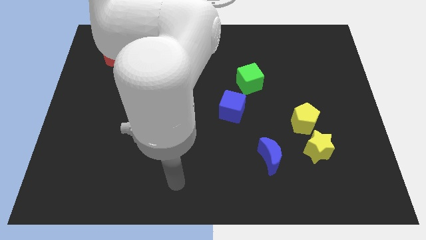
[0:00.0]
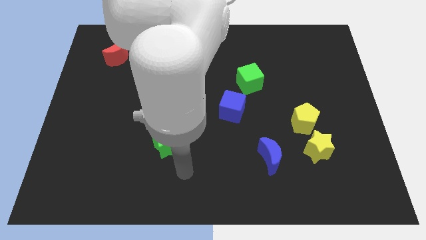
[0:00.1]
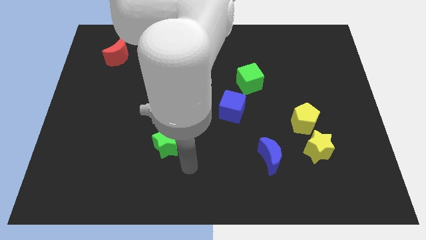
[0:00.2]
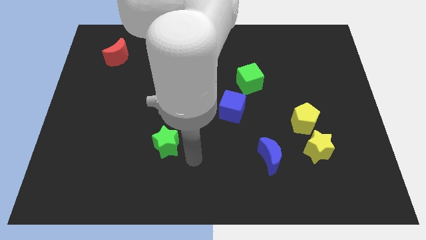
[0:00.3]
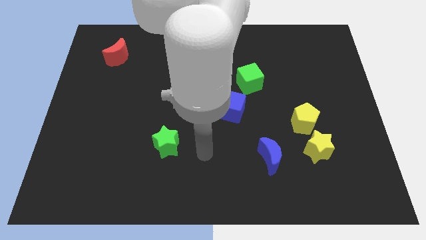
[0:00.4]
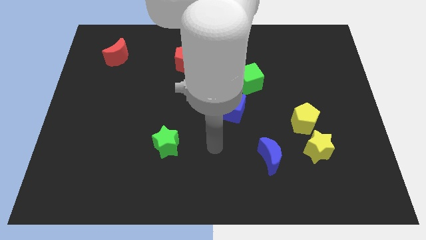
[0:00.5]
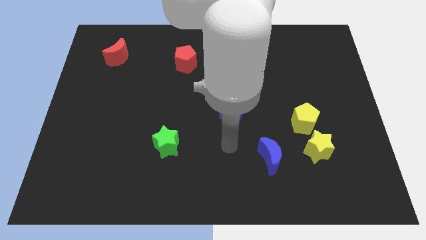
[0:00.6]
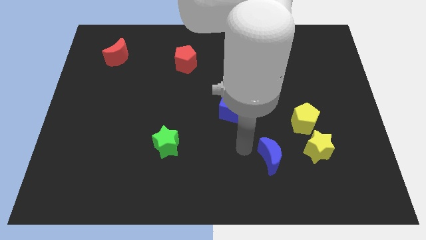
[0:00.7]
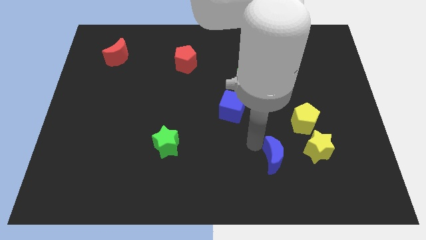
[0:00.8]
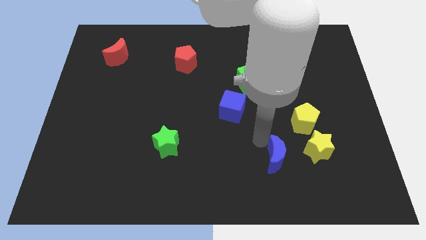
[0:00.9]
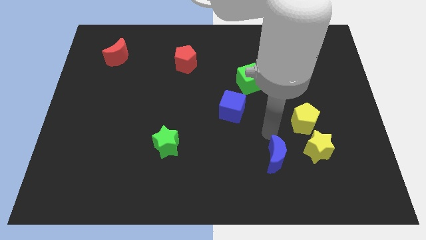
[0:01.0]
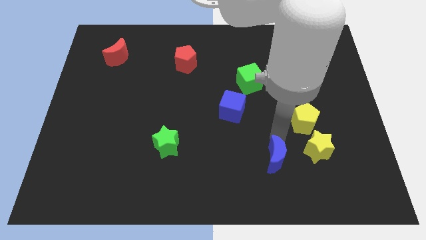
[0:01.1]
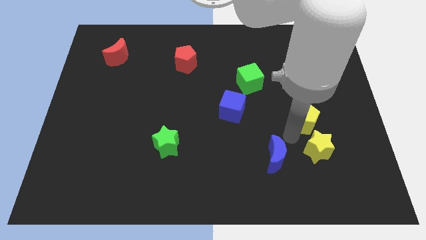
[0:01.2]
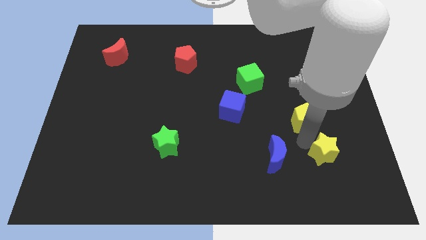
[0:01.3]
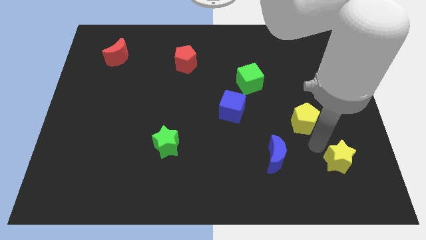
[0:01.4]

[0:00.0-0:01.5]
pull the yellow pentagon apart from the yellow star

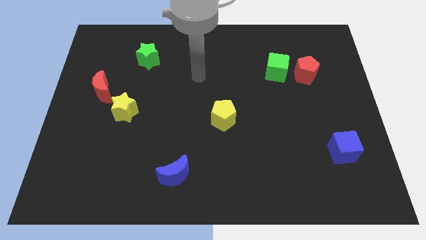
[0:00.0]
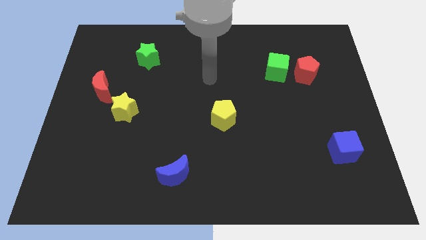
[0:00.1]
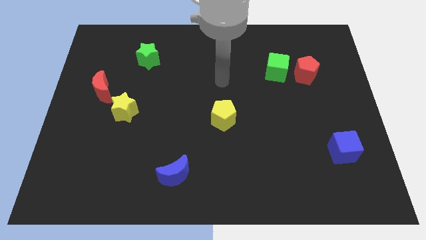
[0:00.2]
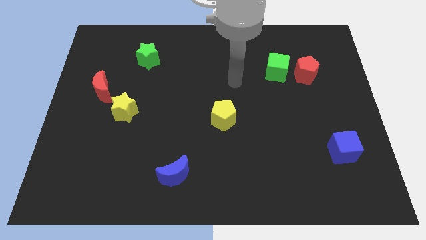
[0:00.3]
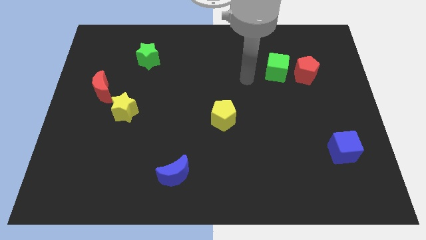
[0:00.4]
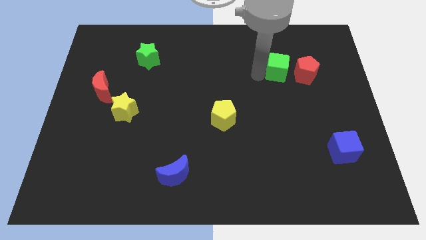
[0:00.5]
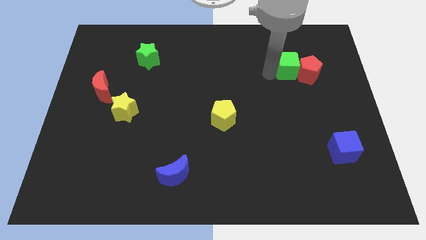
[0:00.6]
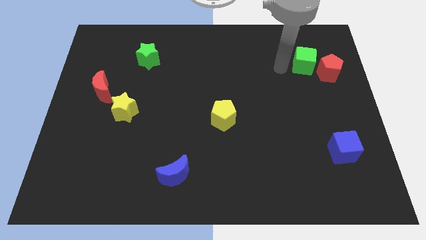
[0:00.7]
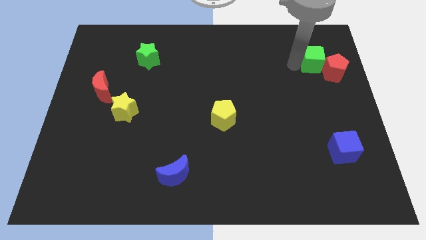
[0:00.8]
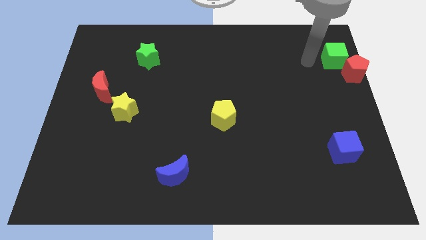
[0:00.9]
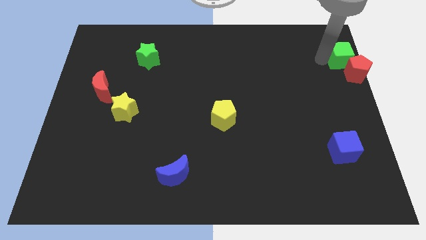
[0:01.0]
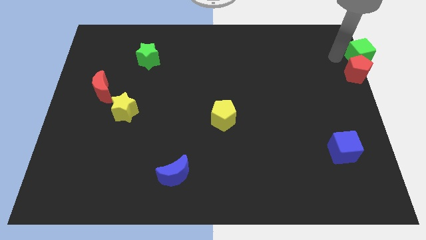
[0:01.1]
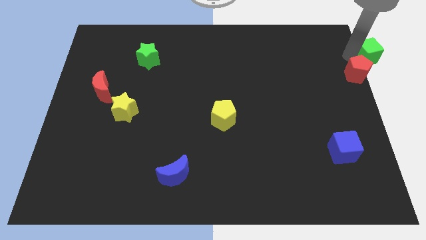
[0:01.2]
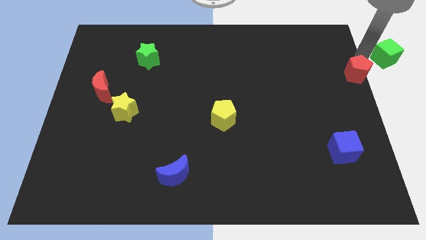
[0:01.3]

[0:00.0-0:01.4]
separate the red pentagon from the green cube

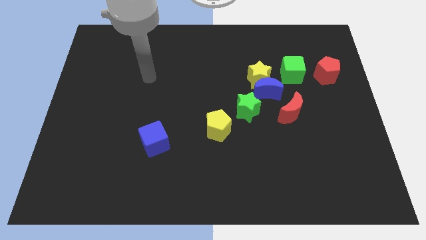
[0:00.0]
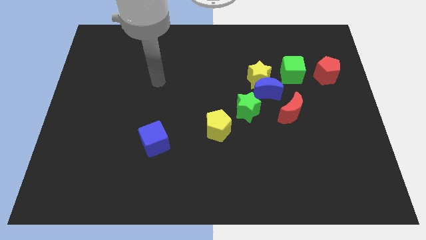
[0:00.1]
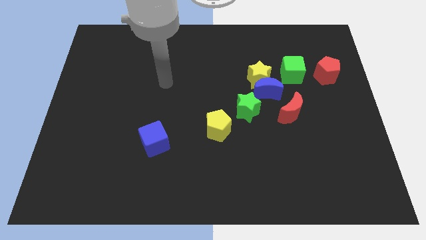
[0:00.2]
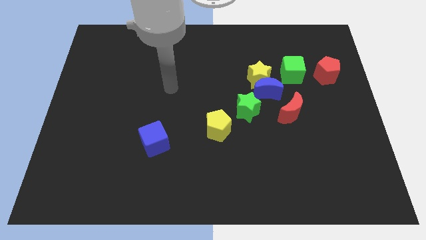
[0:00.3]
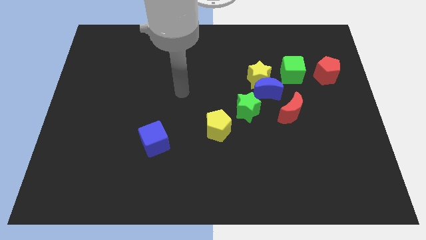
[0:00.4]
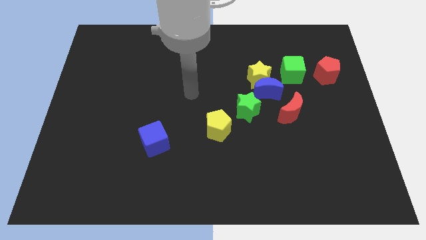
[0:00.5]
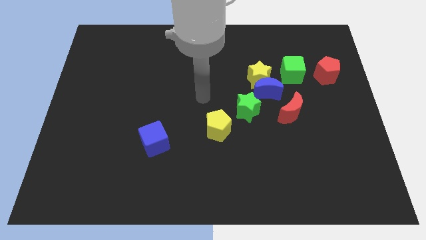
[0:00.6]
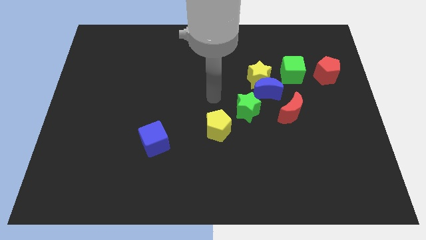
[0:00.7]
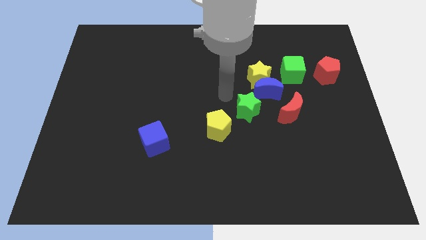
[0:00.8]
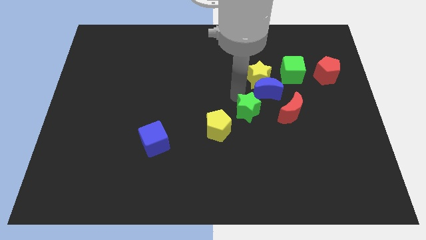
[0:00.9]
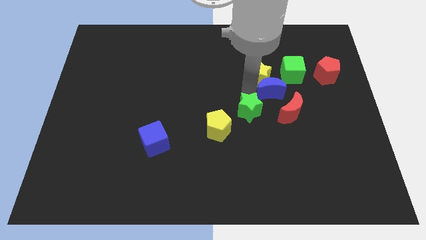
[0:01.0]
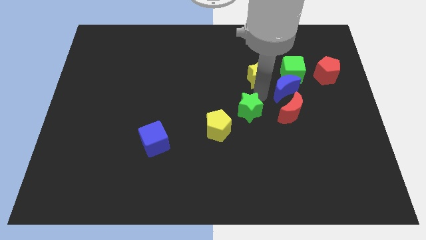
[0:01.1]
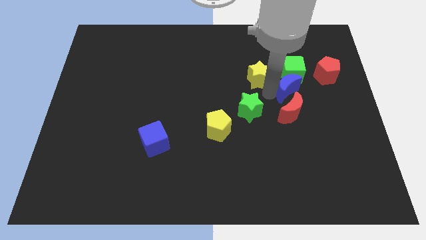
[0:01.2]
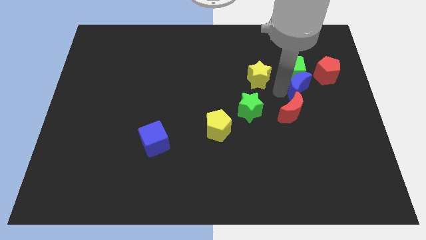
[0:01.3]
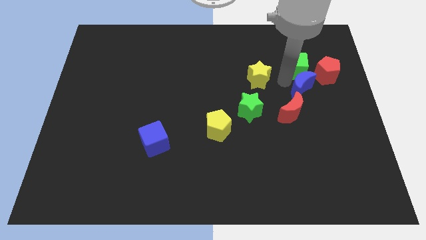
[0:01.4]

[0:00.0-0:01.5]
separate the yellow star from the blue moon and green cube

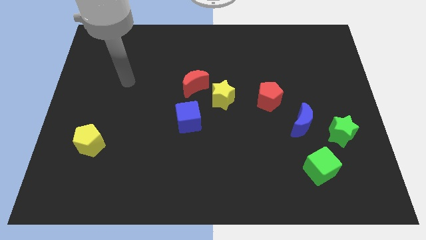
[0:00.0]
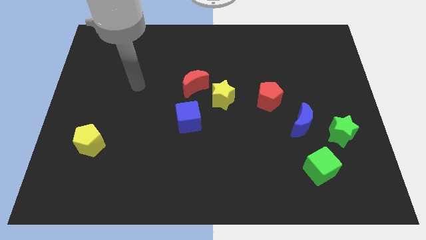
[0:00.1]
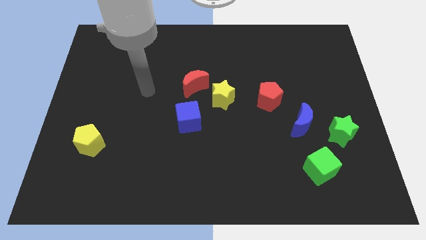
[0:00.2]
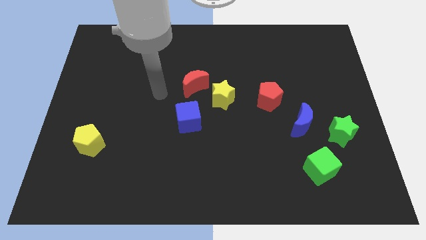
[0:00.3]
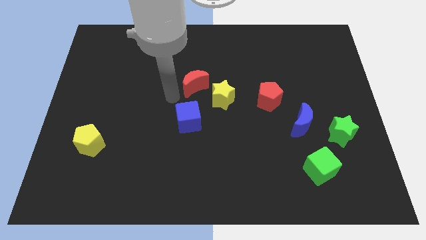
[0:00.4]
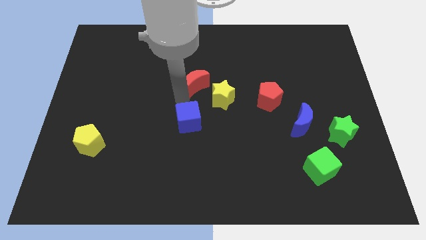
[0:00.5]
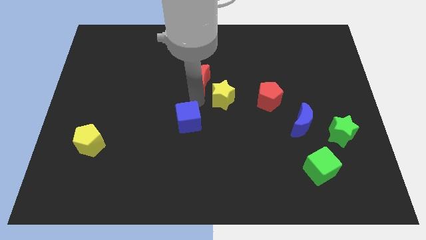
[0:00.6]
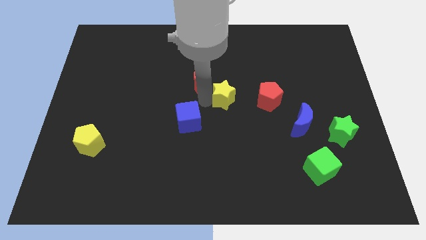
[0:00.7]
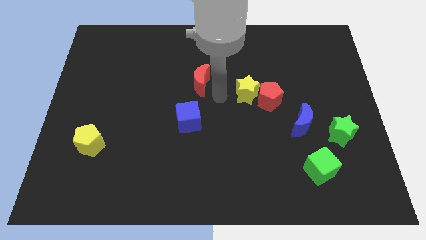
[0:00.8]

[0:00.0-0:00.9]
move the red moon away from the yellow star

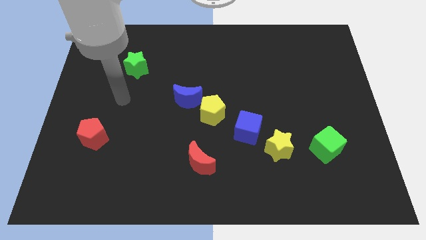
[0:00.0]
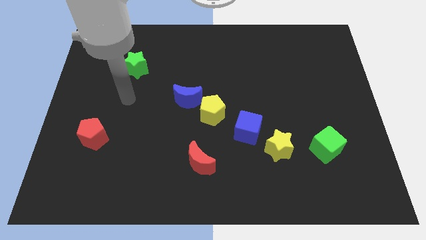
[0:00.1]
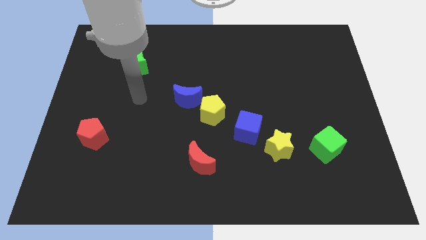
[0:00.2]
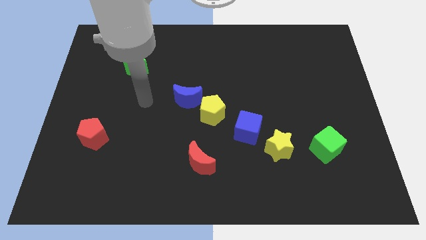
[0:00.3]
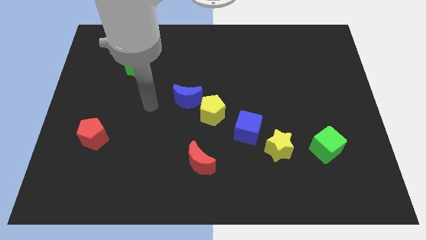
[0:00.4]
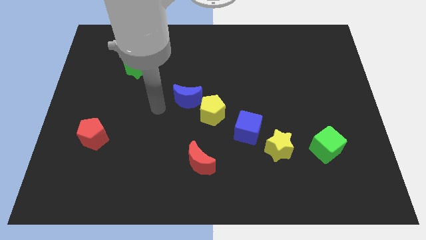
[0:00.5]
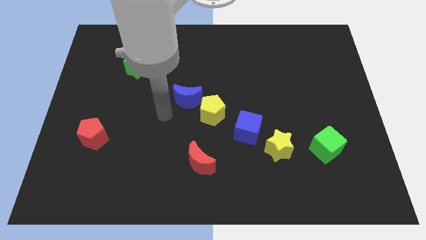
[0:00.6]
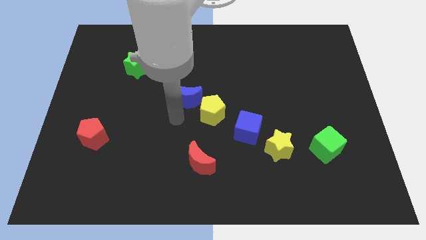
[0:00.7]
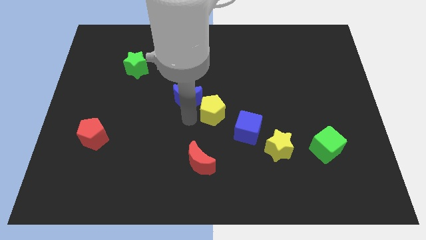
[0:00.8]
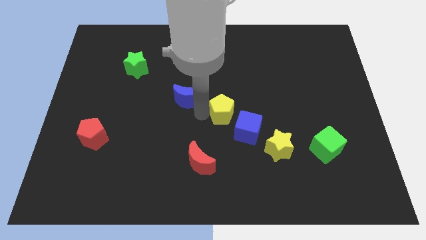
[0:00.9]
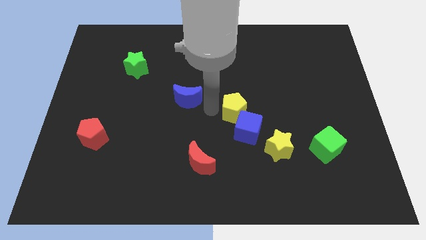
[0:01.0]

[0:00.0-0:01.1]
move the blue moon away from the yellow pentagon

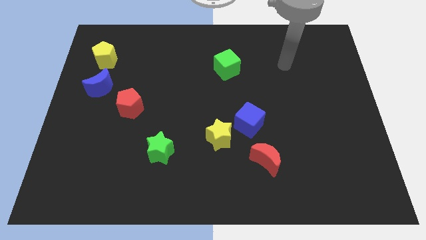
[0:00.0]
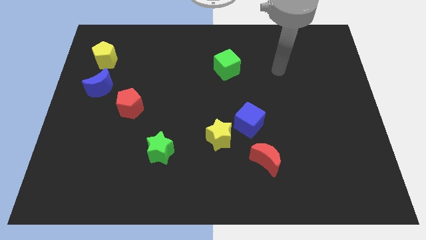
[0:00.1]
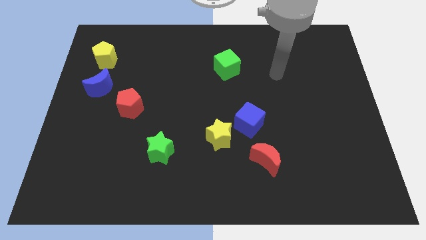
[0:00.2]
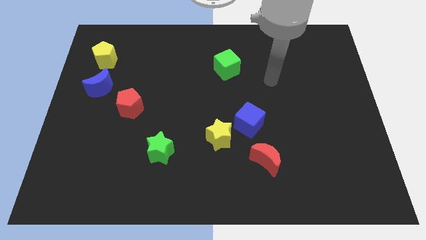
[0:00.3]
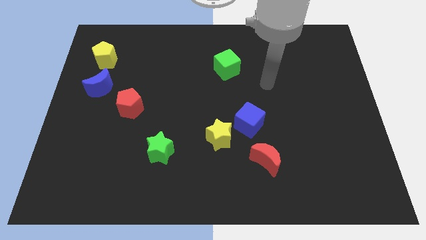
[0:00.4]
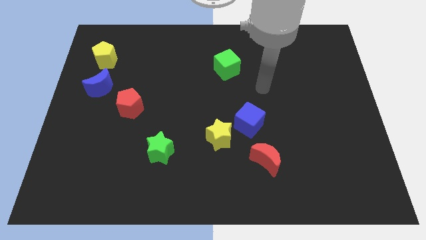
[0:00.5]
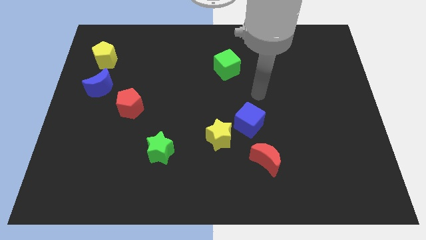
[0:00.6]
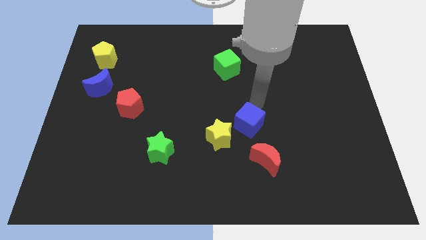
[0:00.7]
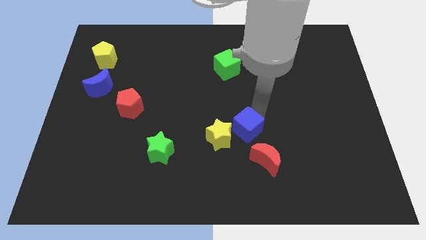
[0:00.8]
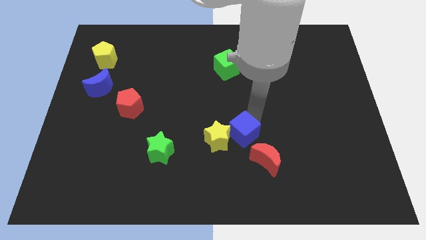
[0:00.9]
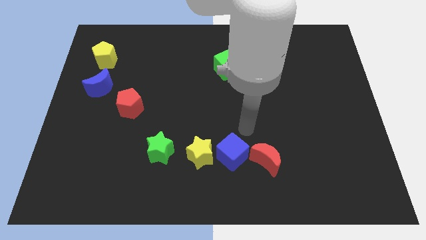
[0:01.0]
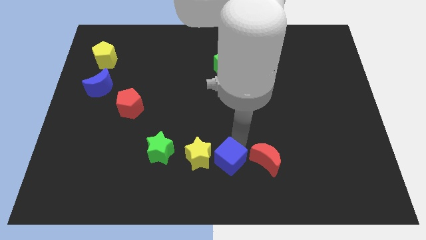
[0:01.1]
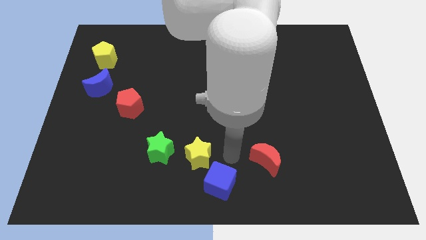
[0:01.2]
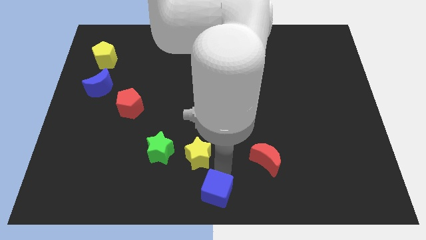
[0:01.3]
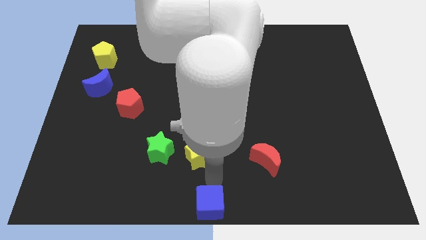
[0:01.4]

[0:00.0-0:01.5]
separate the yellow star from the blue cube

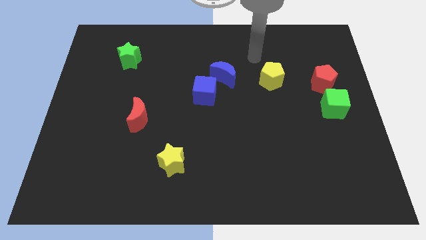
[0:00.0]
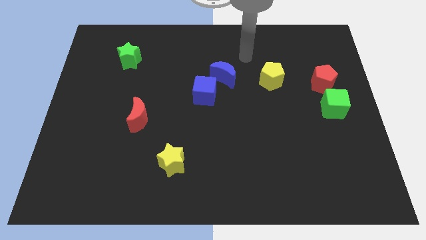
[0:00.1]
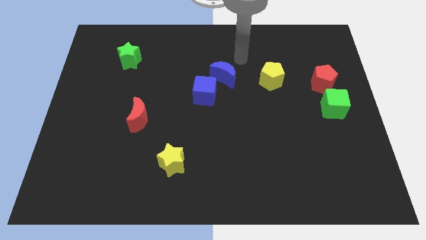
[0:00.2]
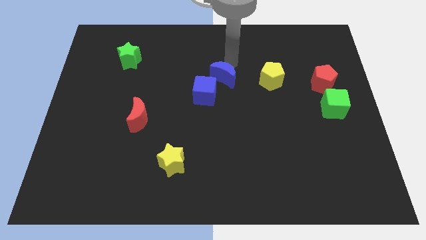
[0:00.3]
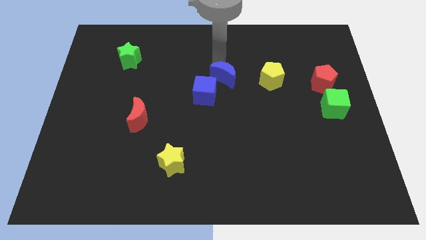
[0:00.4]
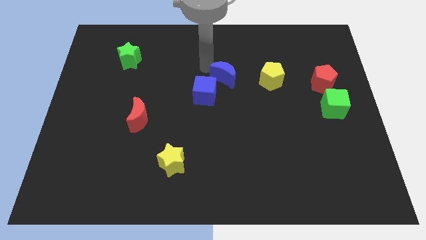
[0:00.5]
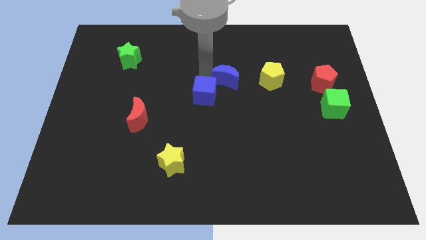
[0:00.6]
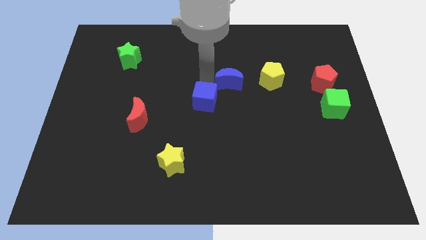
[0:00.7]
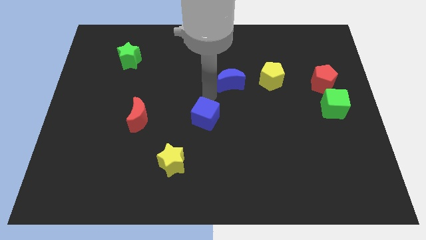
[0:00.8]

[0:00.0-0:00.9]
separate the blue moon from the blue cube

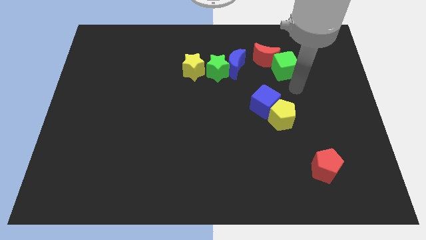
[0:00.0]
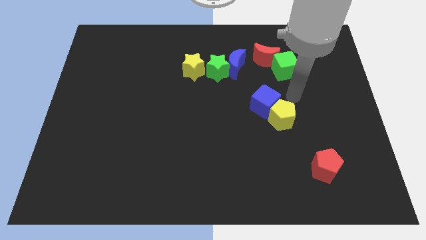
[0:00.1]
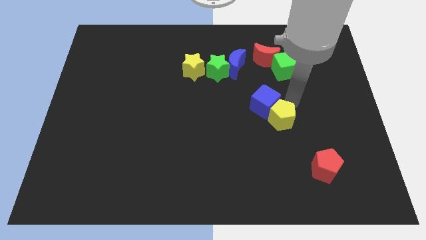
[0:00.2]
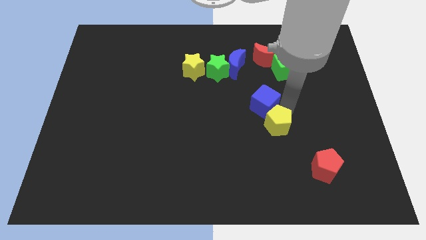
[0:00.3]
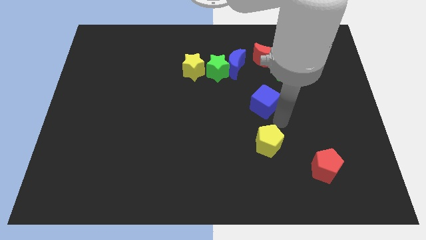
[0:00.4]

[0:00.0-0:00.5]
pull the blue cube apart from the yellow pentagon

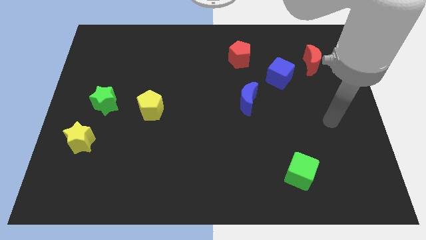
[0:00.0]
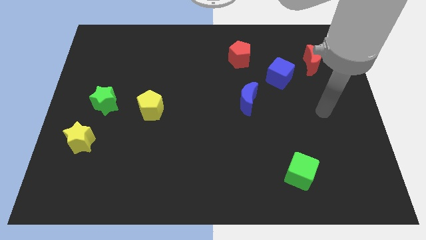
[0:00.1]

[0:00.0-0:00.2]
pull the red moon apart from the blue cube
